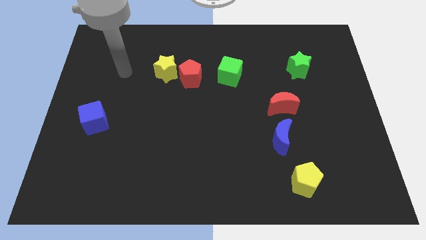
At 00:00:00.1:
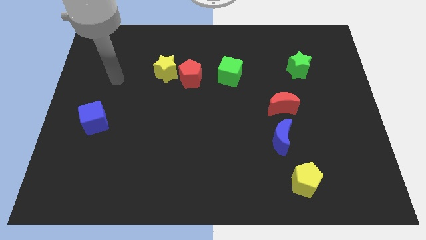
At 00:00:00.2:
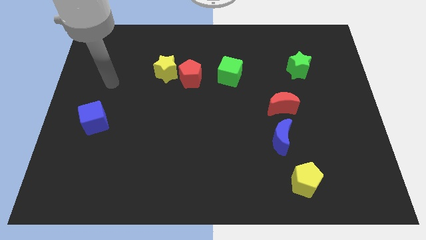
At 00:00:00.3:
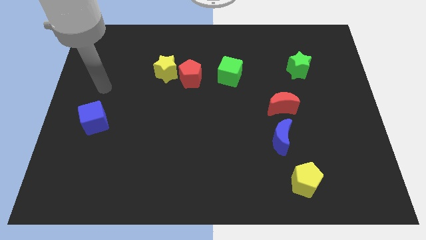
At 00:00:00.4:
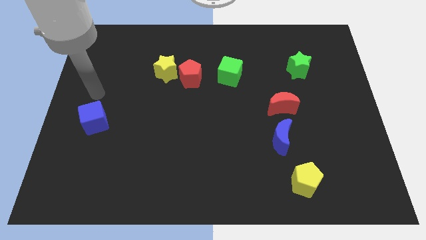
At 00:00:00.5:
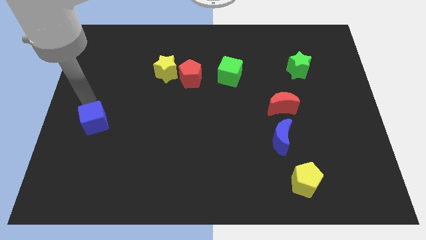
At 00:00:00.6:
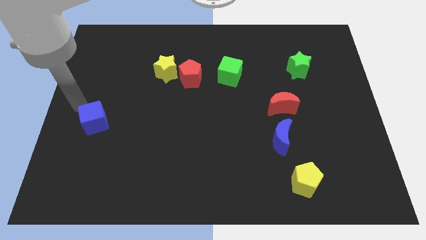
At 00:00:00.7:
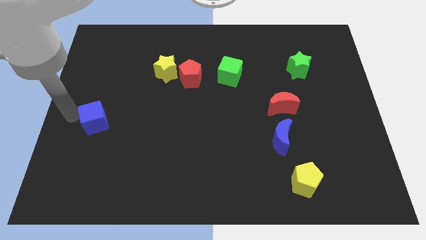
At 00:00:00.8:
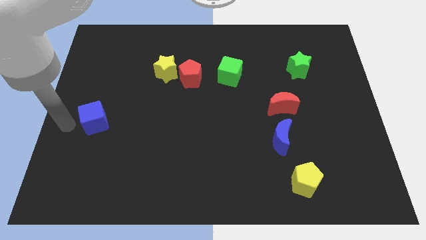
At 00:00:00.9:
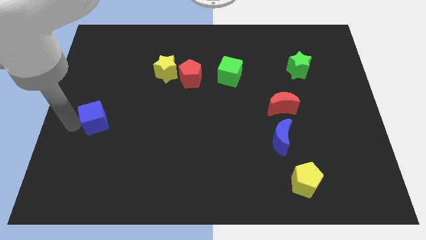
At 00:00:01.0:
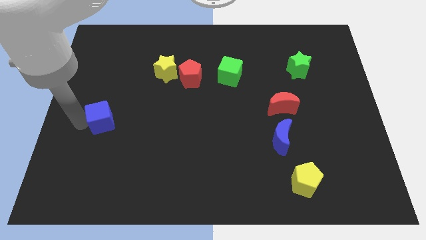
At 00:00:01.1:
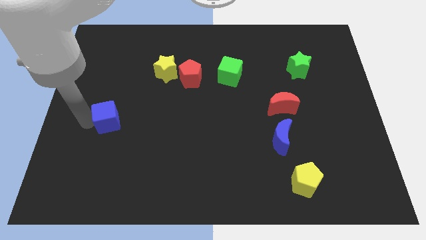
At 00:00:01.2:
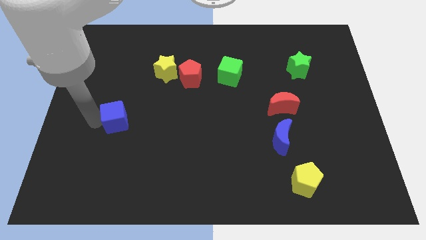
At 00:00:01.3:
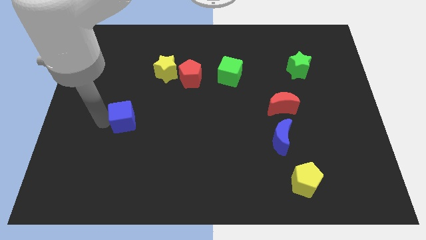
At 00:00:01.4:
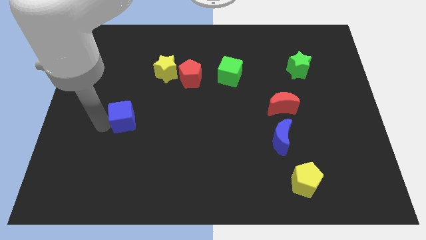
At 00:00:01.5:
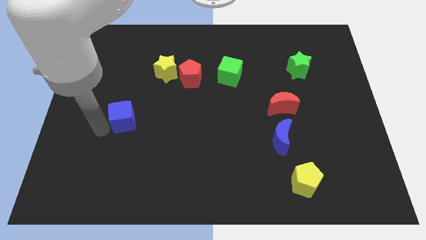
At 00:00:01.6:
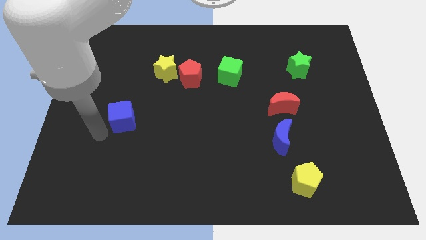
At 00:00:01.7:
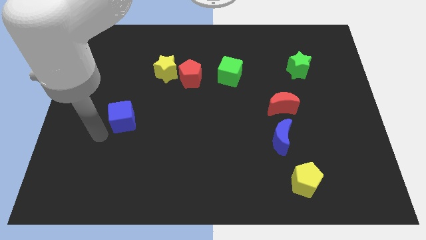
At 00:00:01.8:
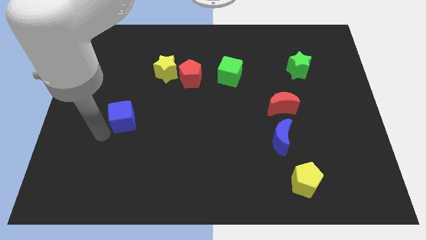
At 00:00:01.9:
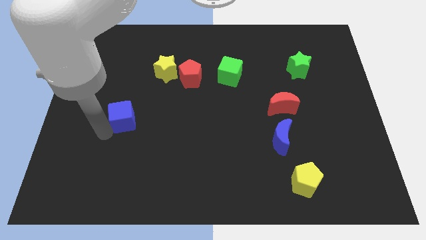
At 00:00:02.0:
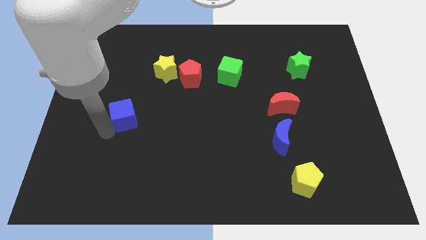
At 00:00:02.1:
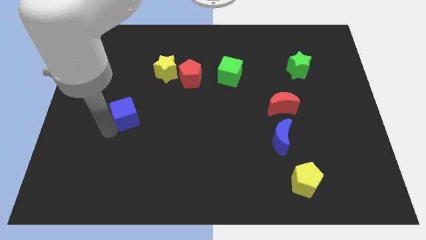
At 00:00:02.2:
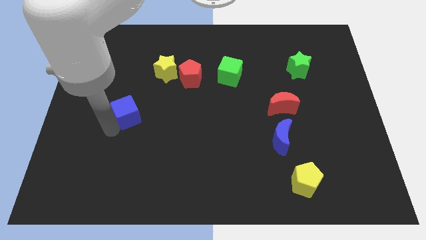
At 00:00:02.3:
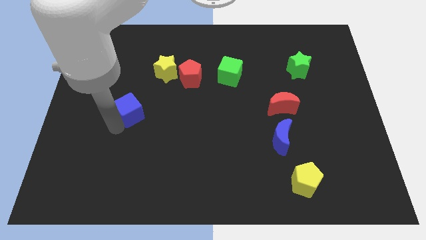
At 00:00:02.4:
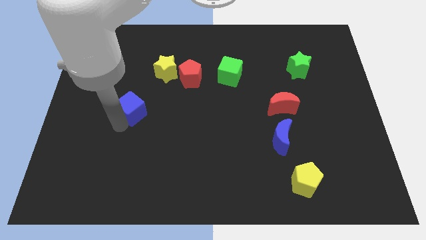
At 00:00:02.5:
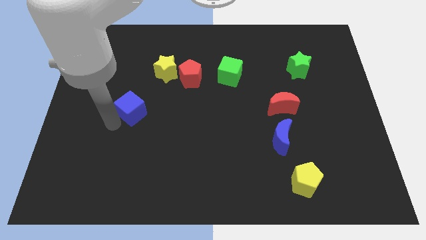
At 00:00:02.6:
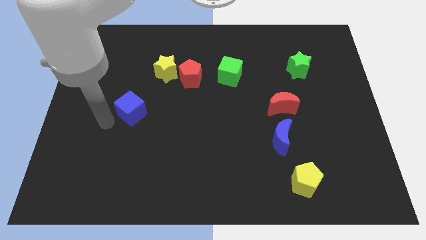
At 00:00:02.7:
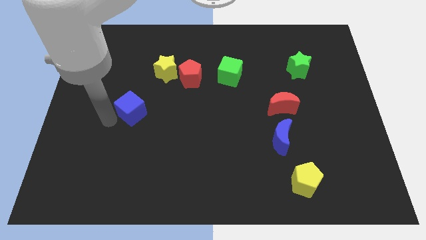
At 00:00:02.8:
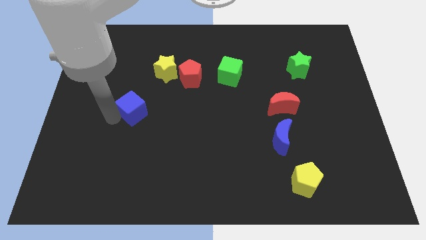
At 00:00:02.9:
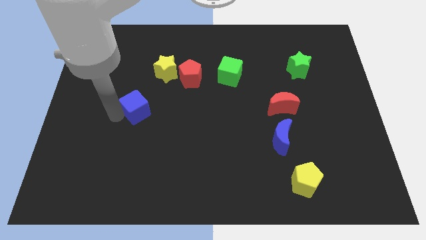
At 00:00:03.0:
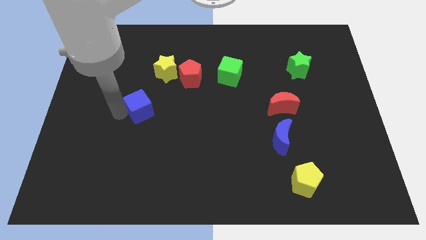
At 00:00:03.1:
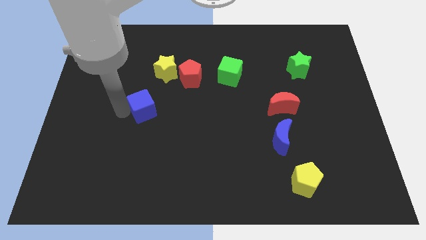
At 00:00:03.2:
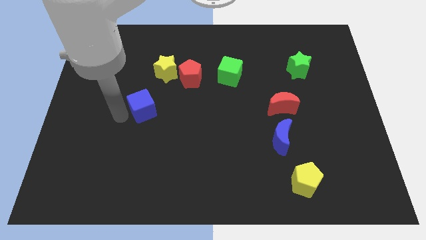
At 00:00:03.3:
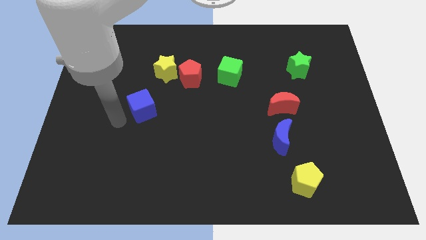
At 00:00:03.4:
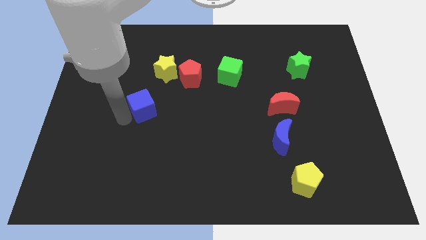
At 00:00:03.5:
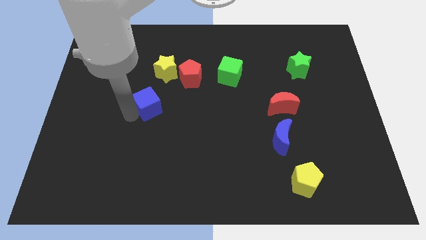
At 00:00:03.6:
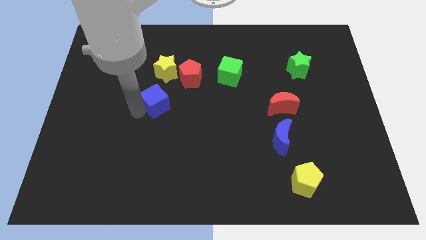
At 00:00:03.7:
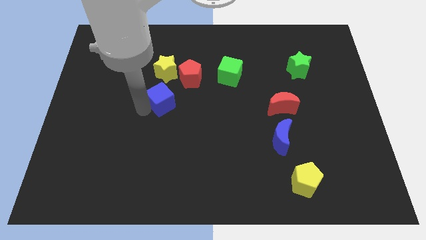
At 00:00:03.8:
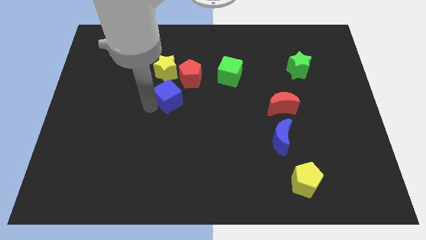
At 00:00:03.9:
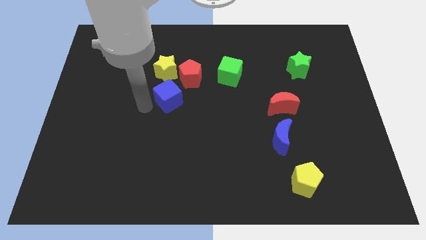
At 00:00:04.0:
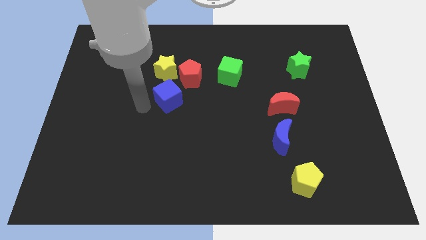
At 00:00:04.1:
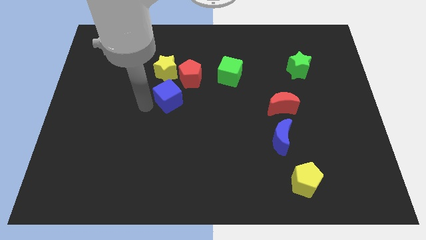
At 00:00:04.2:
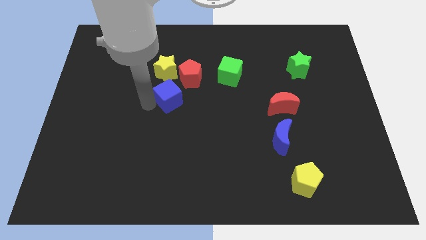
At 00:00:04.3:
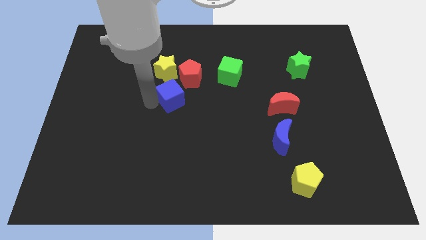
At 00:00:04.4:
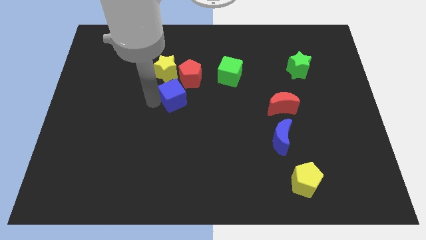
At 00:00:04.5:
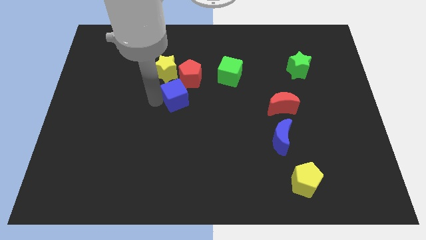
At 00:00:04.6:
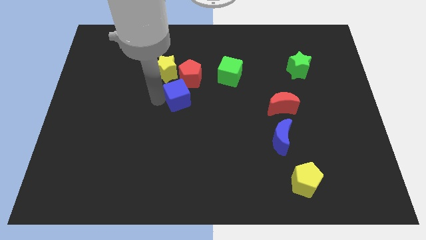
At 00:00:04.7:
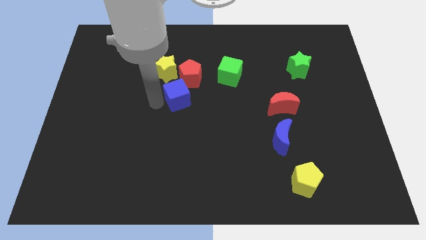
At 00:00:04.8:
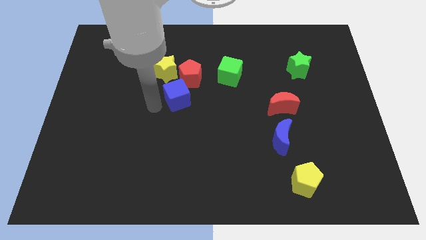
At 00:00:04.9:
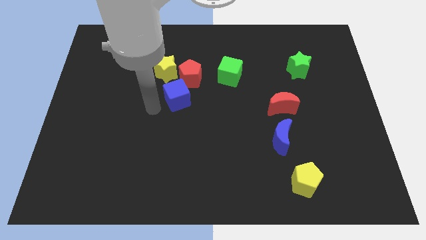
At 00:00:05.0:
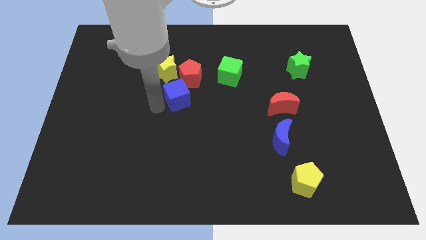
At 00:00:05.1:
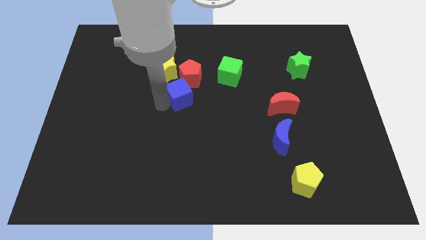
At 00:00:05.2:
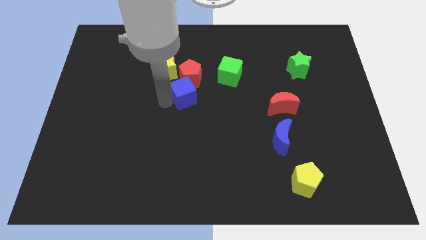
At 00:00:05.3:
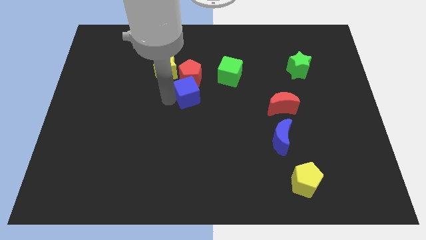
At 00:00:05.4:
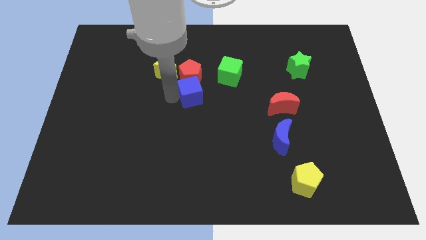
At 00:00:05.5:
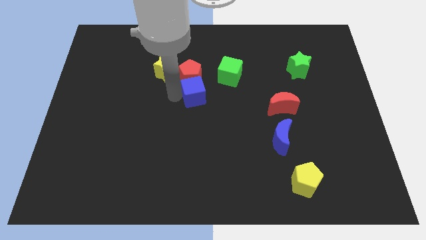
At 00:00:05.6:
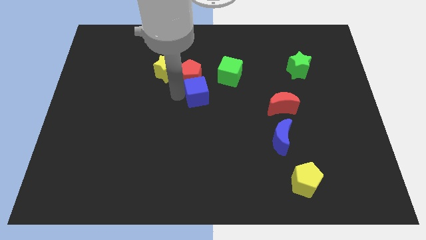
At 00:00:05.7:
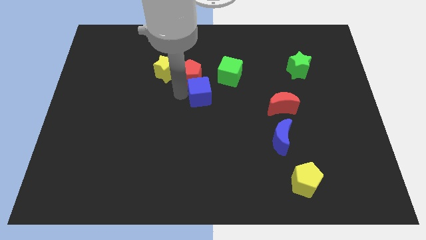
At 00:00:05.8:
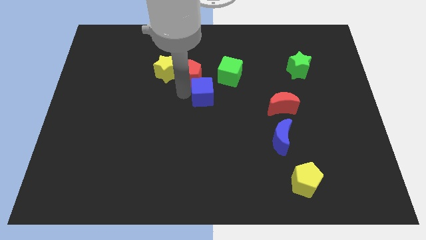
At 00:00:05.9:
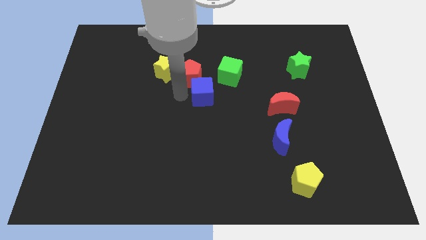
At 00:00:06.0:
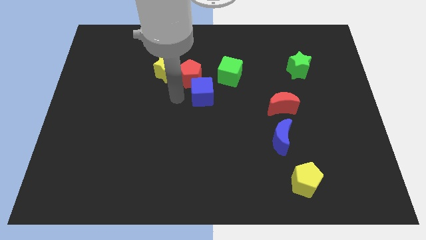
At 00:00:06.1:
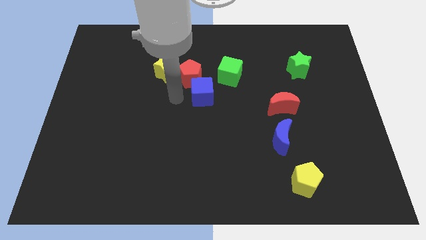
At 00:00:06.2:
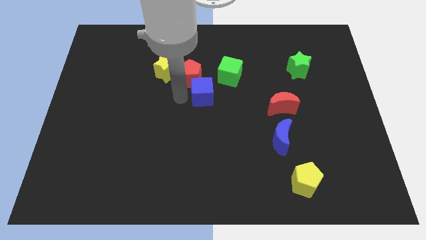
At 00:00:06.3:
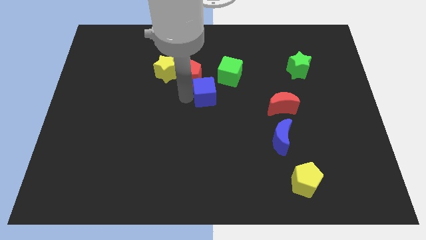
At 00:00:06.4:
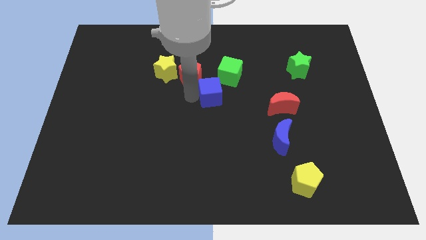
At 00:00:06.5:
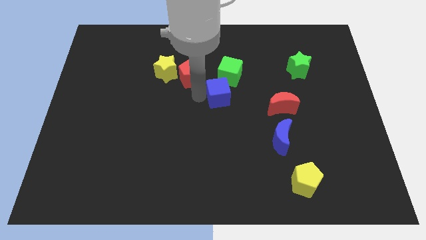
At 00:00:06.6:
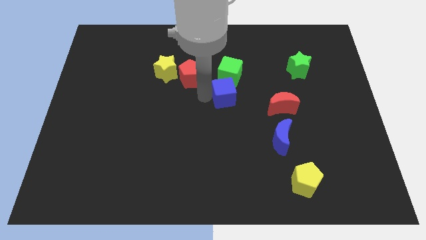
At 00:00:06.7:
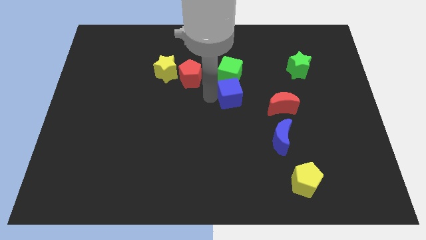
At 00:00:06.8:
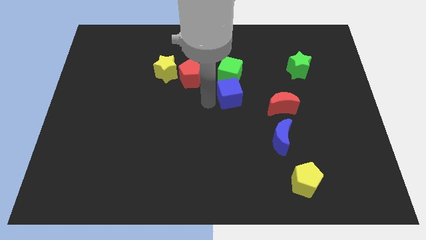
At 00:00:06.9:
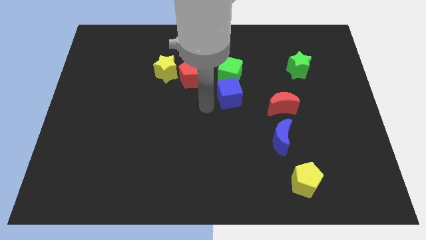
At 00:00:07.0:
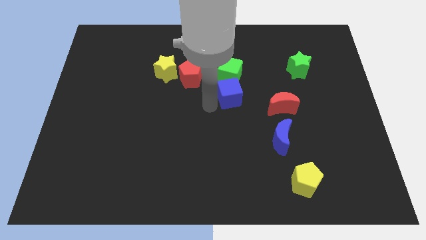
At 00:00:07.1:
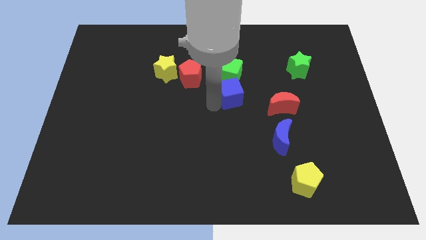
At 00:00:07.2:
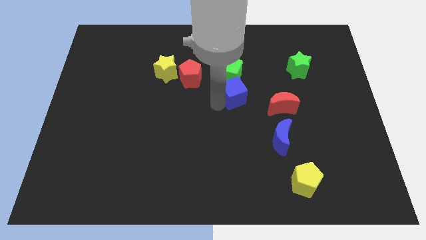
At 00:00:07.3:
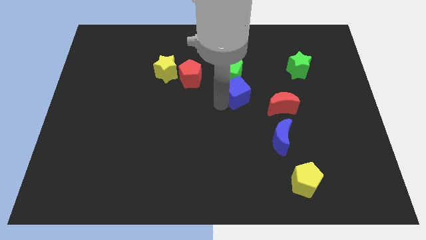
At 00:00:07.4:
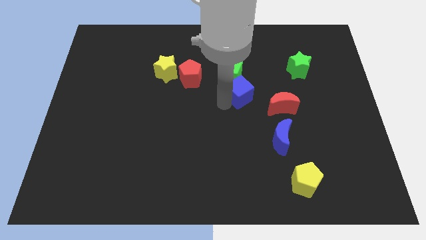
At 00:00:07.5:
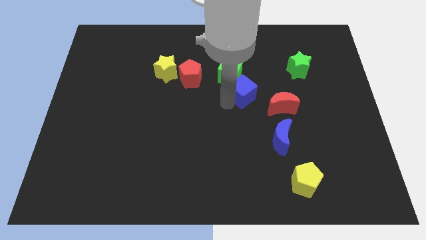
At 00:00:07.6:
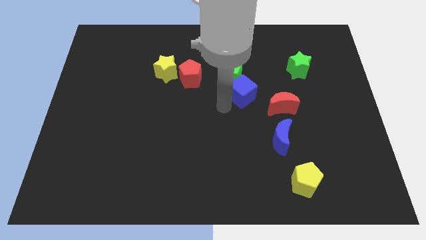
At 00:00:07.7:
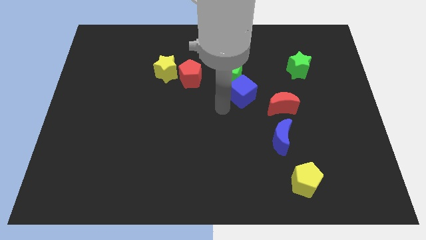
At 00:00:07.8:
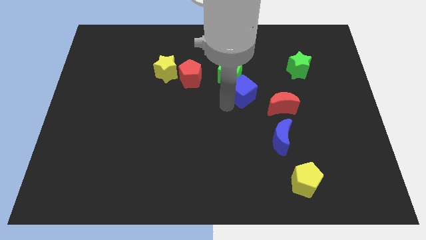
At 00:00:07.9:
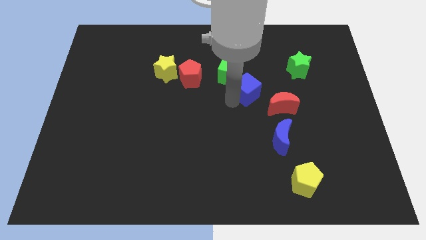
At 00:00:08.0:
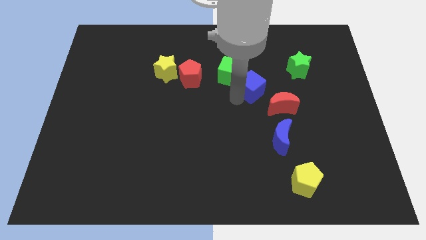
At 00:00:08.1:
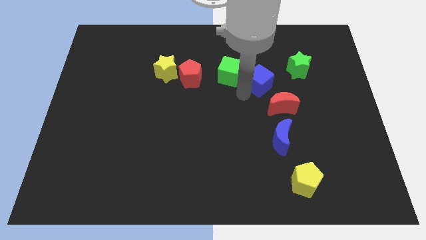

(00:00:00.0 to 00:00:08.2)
slide the blue cube to the top of the red moon
